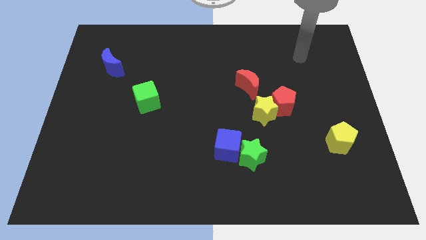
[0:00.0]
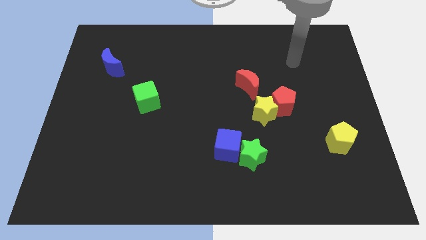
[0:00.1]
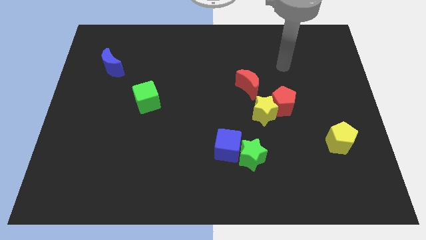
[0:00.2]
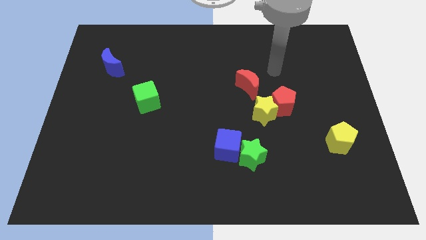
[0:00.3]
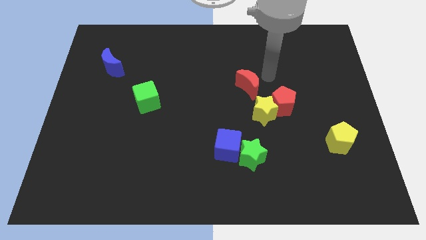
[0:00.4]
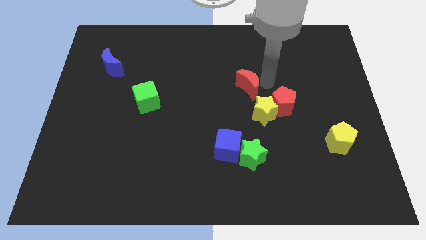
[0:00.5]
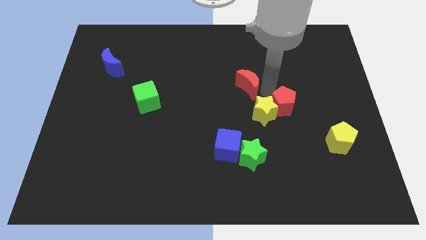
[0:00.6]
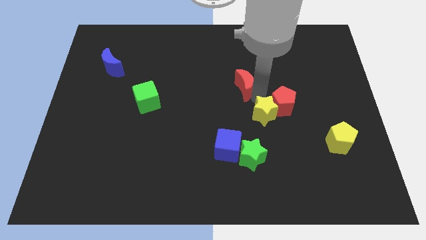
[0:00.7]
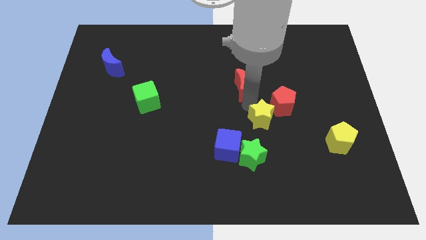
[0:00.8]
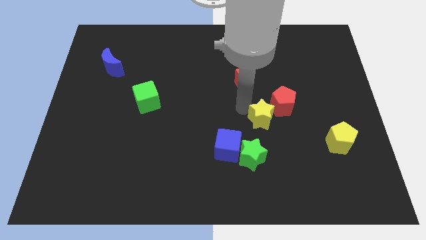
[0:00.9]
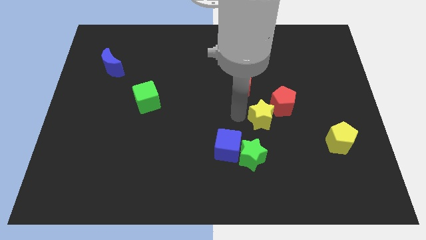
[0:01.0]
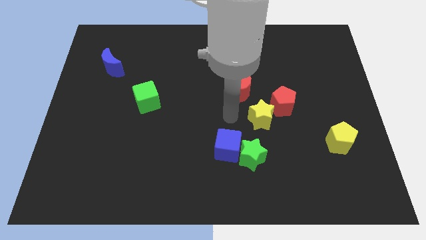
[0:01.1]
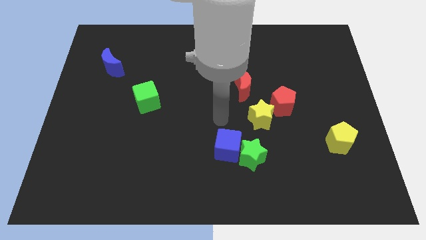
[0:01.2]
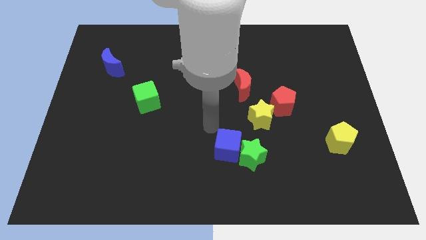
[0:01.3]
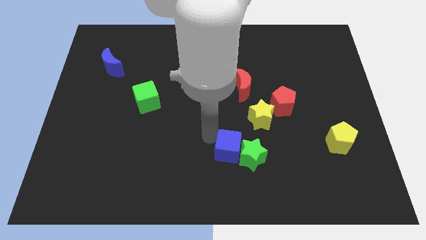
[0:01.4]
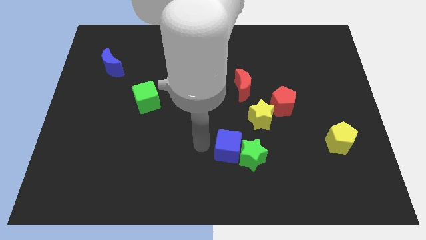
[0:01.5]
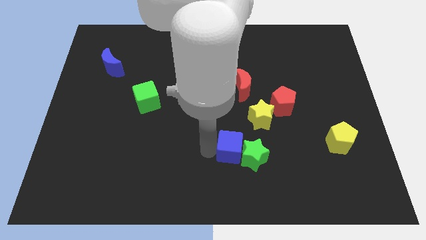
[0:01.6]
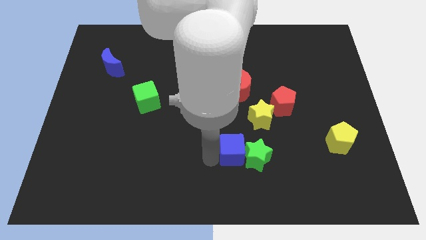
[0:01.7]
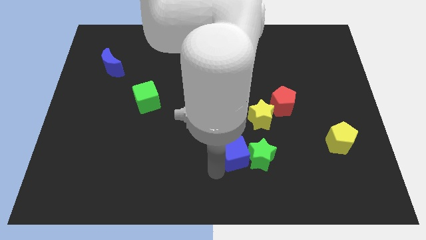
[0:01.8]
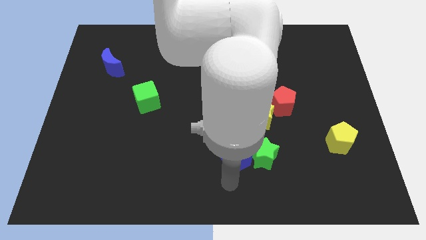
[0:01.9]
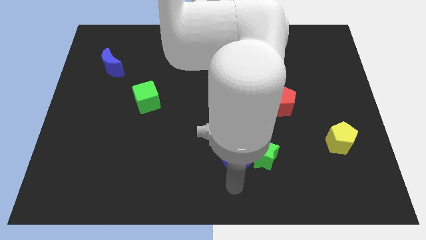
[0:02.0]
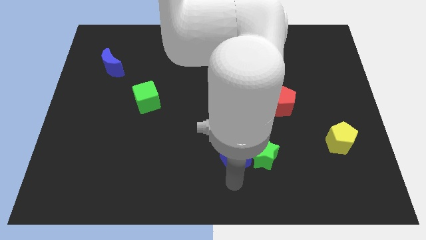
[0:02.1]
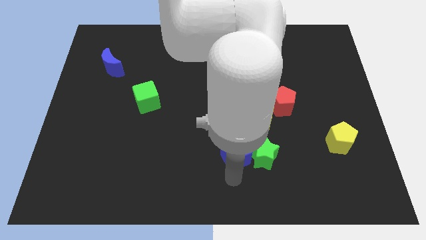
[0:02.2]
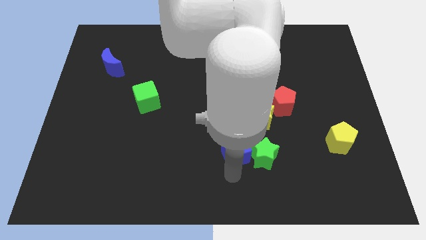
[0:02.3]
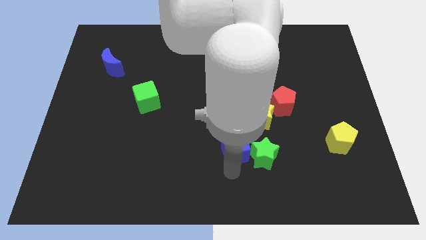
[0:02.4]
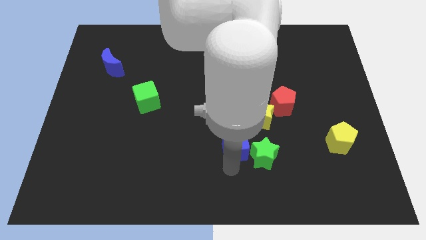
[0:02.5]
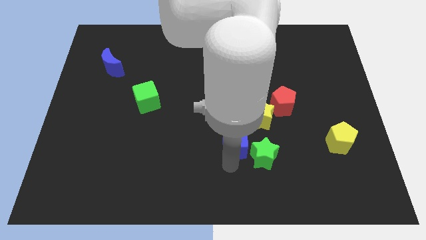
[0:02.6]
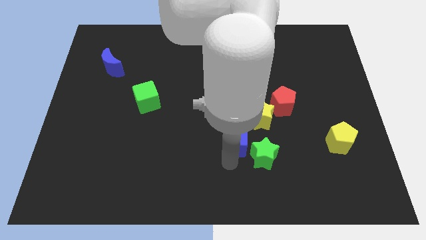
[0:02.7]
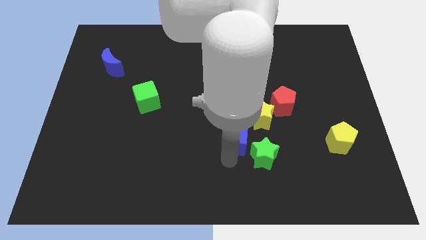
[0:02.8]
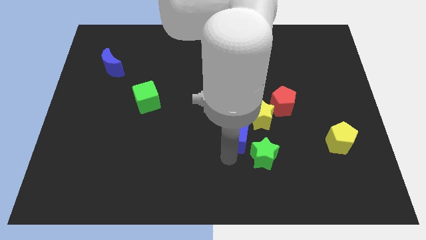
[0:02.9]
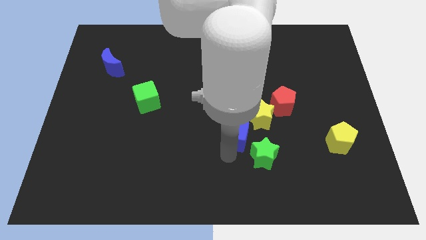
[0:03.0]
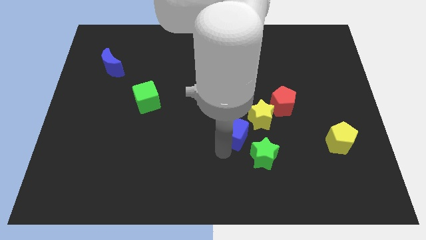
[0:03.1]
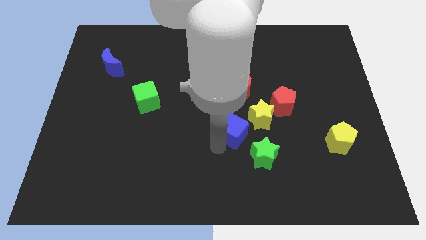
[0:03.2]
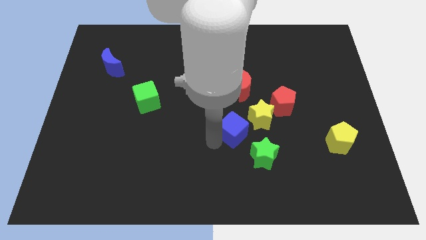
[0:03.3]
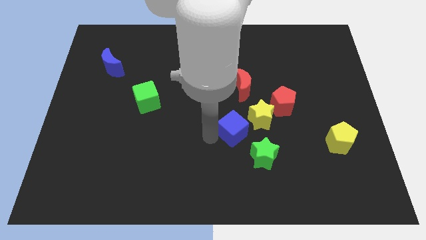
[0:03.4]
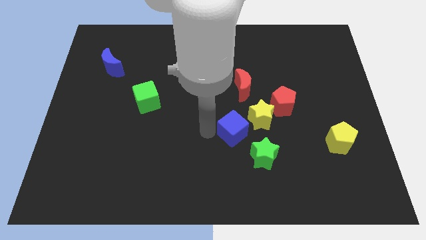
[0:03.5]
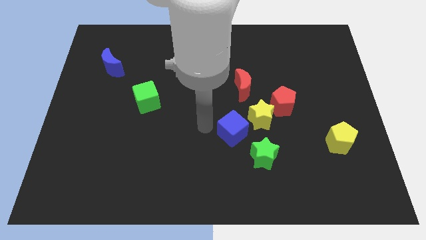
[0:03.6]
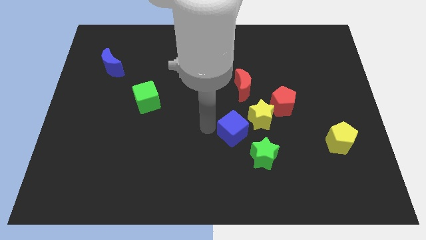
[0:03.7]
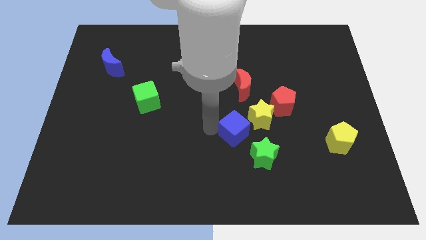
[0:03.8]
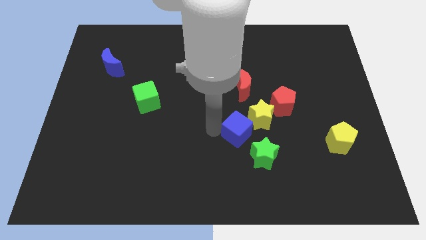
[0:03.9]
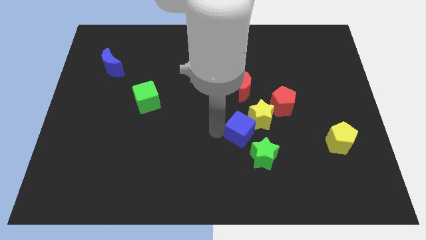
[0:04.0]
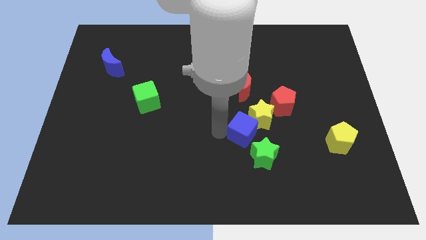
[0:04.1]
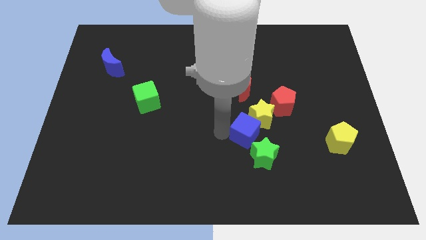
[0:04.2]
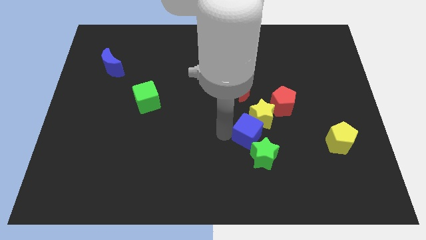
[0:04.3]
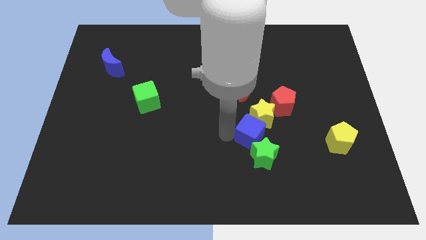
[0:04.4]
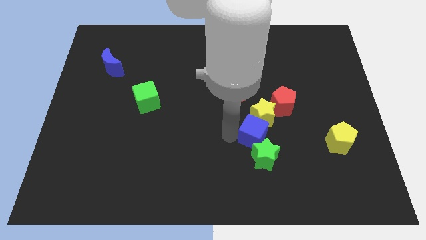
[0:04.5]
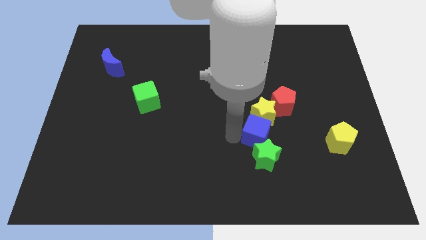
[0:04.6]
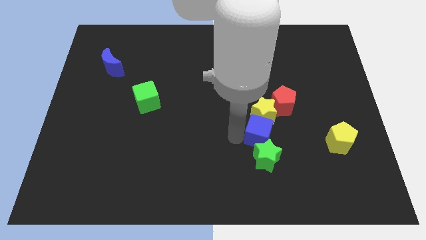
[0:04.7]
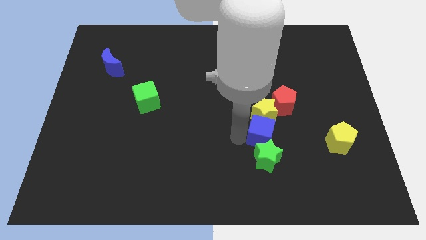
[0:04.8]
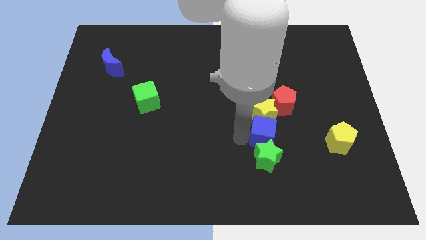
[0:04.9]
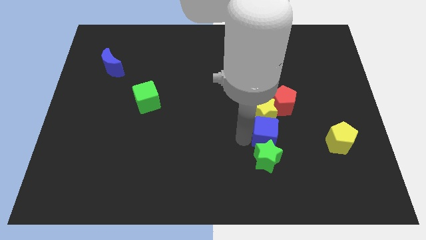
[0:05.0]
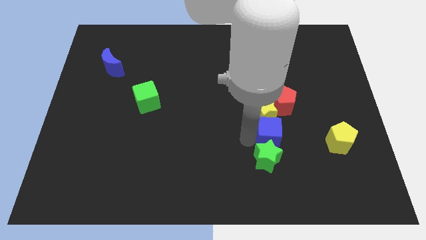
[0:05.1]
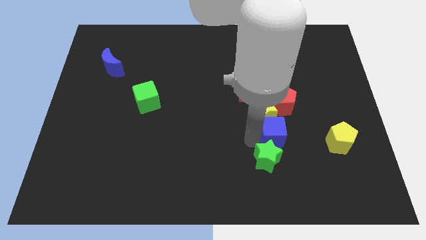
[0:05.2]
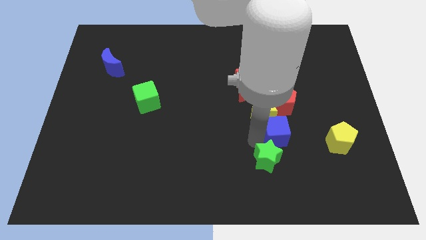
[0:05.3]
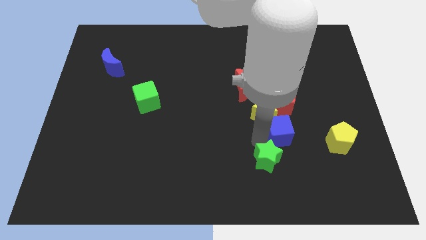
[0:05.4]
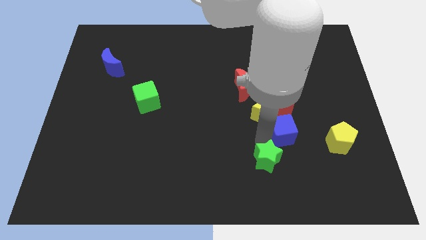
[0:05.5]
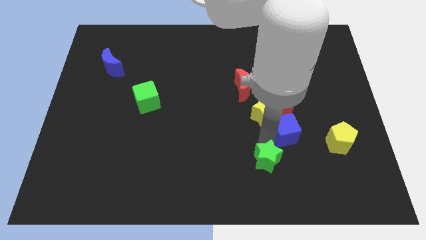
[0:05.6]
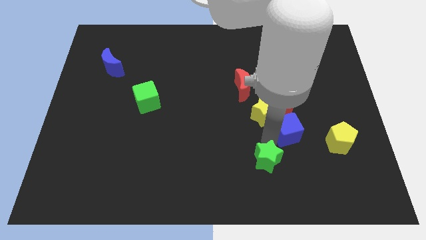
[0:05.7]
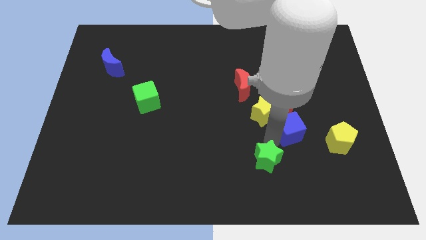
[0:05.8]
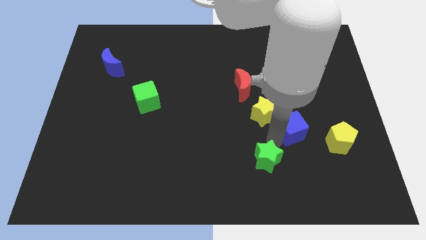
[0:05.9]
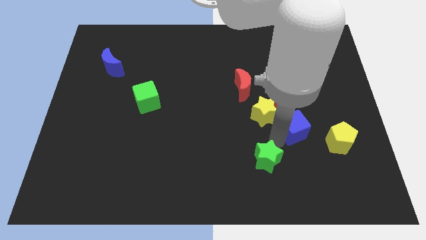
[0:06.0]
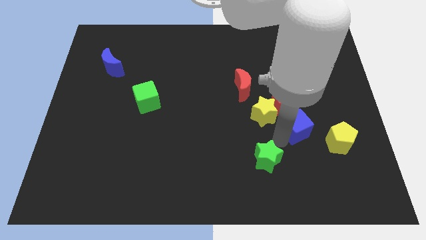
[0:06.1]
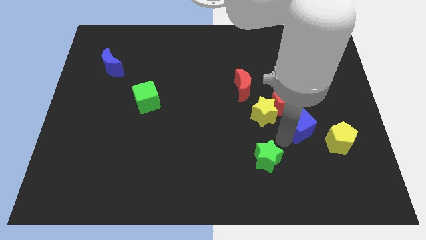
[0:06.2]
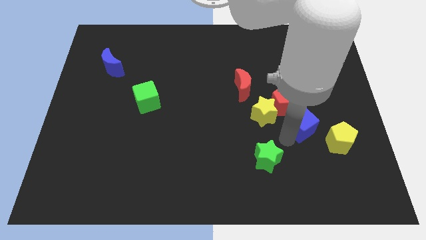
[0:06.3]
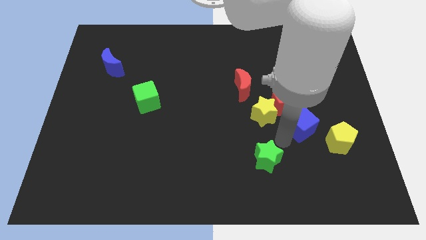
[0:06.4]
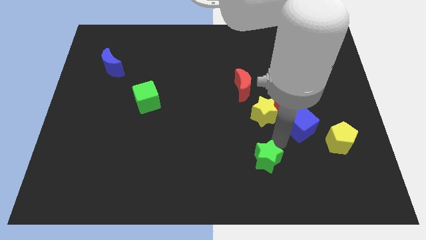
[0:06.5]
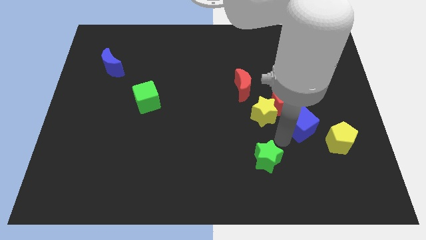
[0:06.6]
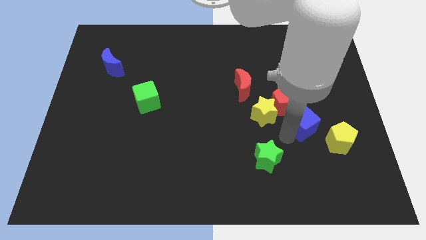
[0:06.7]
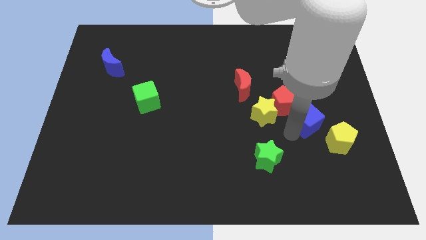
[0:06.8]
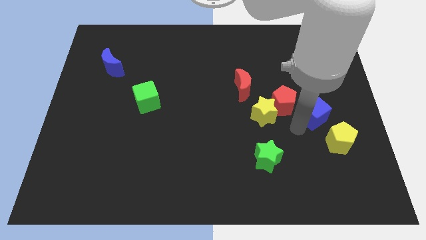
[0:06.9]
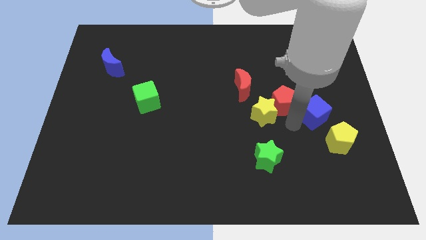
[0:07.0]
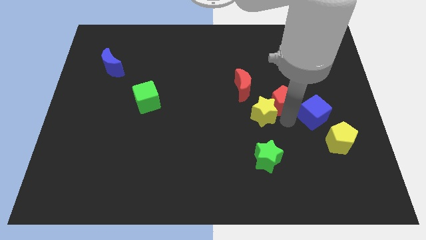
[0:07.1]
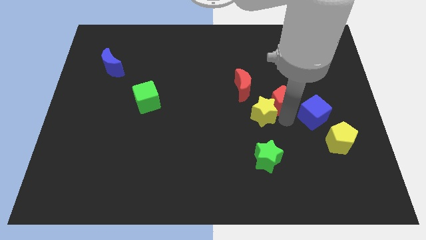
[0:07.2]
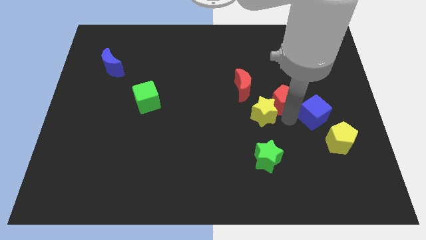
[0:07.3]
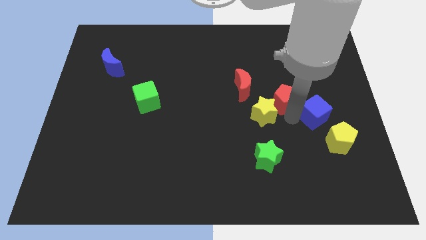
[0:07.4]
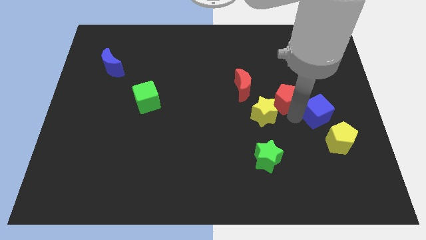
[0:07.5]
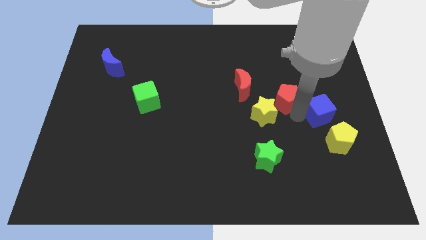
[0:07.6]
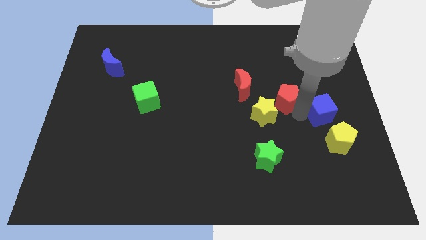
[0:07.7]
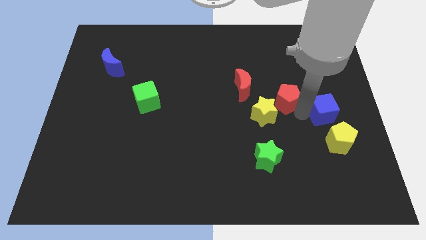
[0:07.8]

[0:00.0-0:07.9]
move the blue cube to the right side
